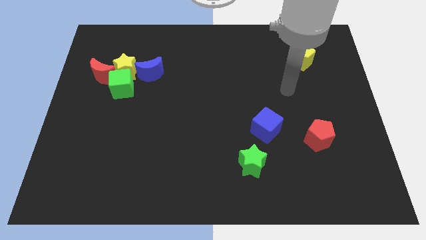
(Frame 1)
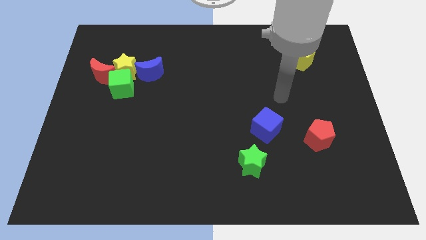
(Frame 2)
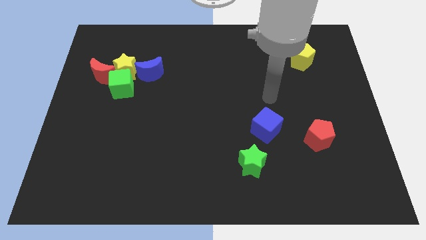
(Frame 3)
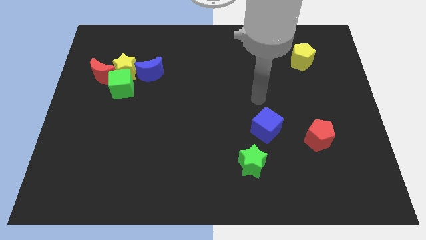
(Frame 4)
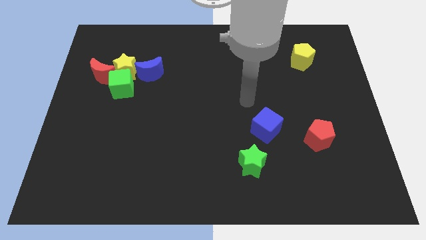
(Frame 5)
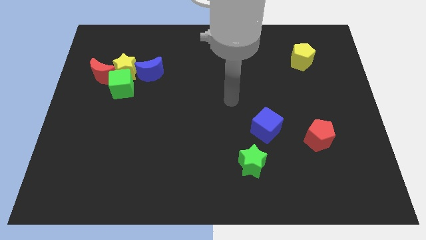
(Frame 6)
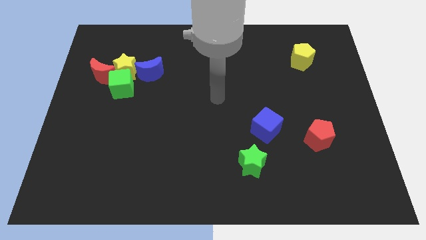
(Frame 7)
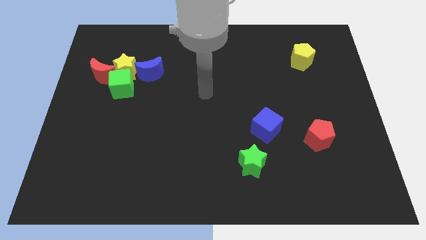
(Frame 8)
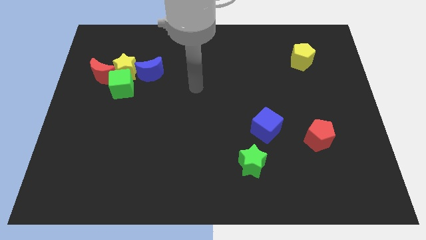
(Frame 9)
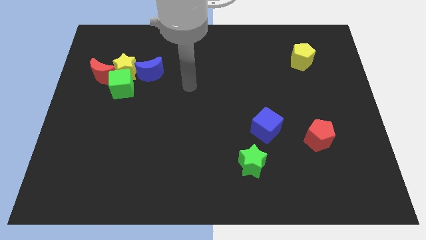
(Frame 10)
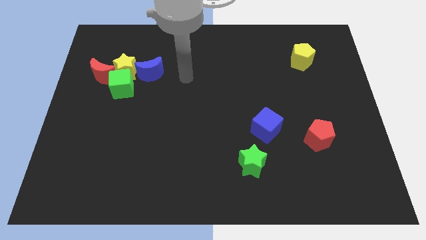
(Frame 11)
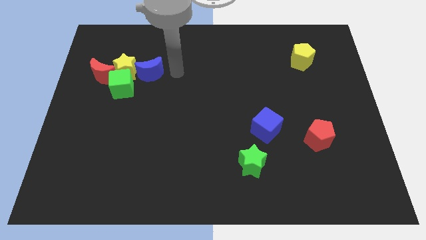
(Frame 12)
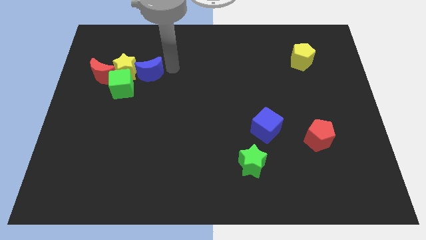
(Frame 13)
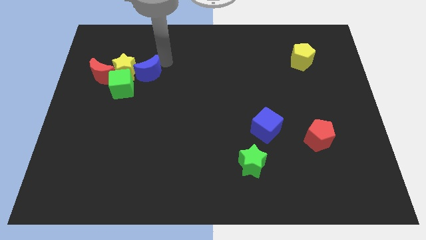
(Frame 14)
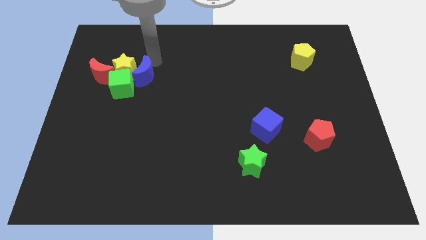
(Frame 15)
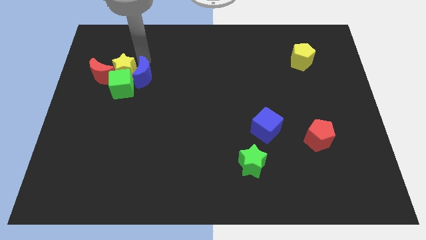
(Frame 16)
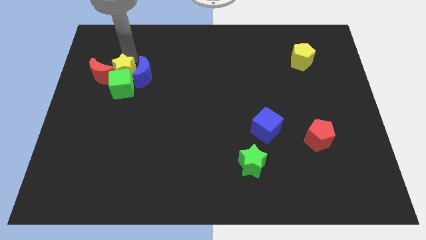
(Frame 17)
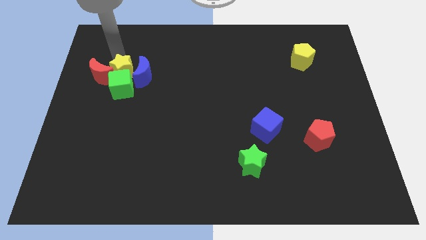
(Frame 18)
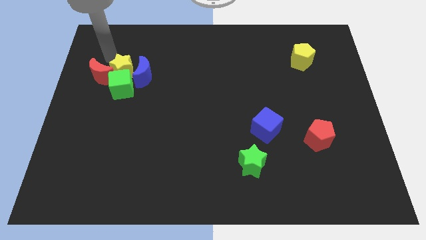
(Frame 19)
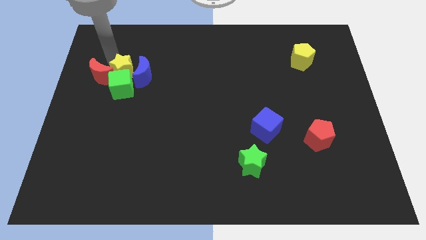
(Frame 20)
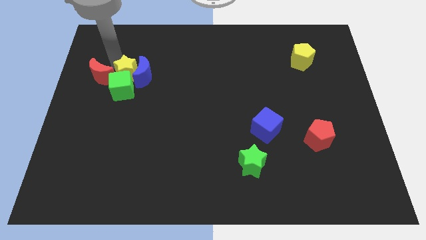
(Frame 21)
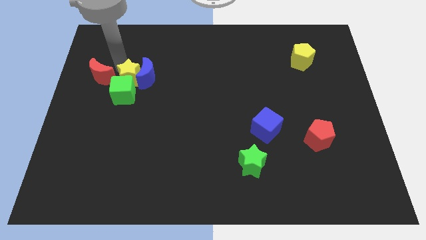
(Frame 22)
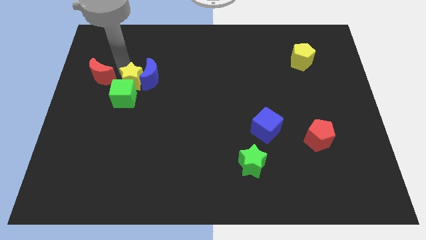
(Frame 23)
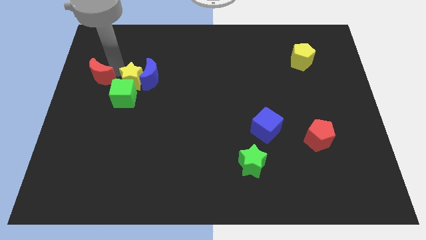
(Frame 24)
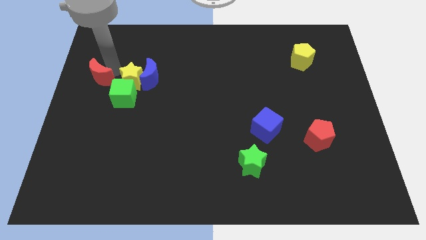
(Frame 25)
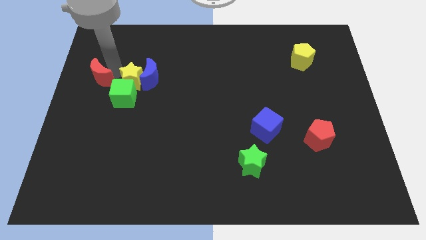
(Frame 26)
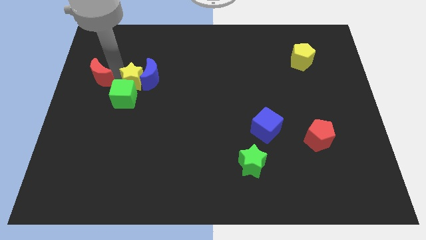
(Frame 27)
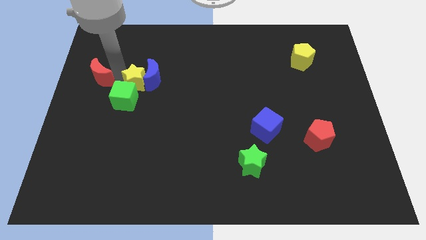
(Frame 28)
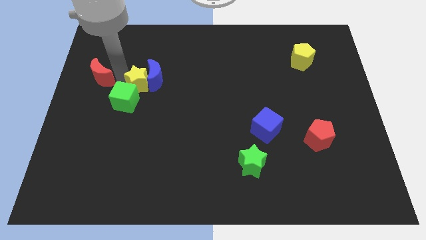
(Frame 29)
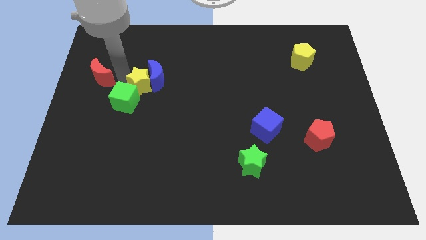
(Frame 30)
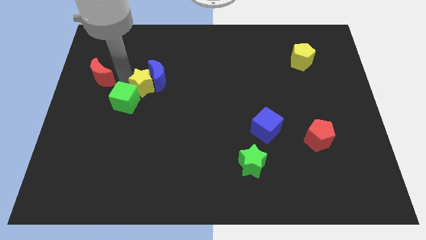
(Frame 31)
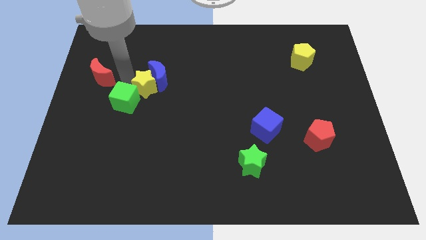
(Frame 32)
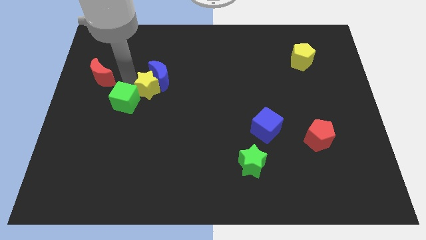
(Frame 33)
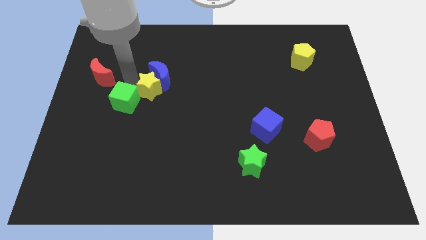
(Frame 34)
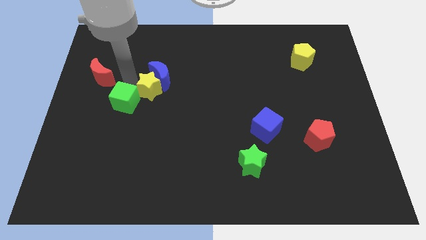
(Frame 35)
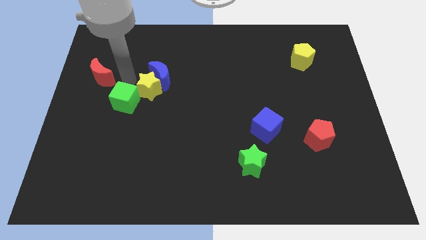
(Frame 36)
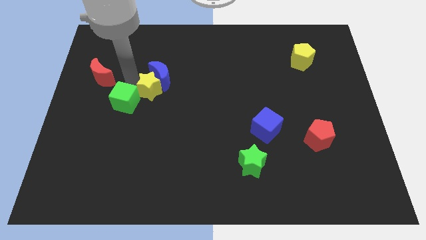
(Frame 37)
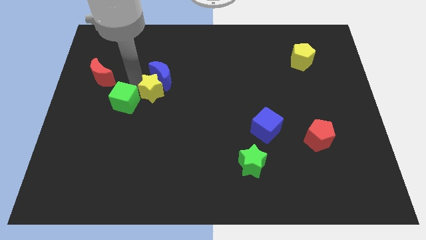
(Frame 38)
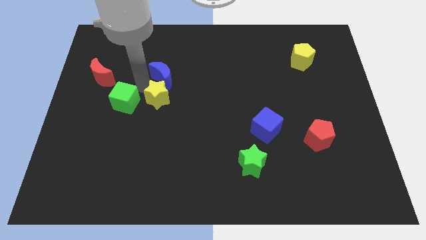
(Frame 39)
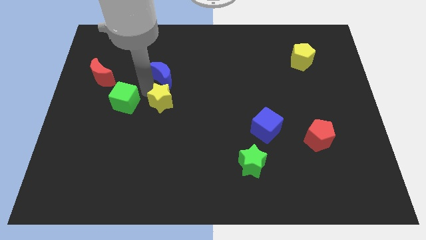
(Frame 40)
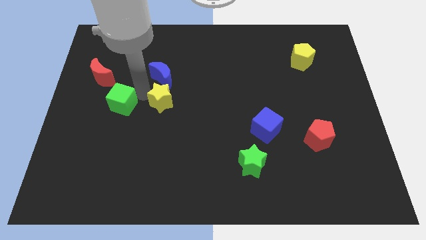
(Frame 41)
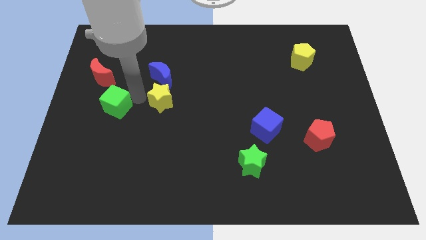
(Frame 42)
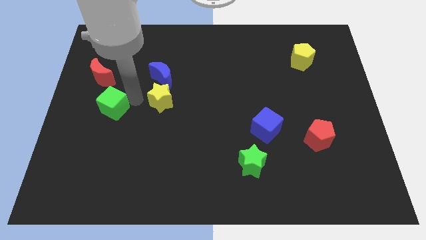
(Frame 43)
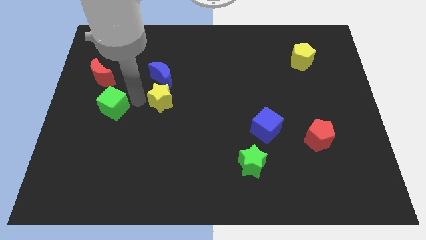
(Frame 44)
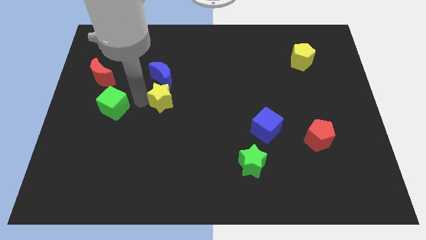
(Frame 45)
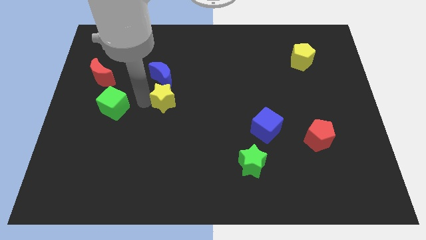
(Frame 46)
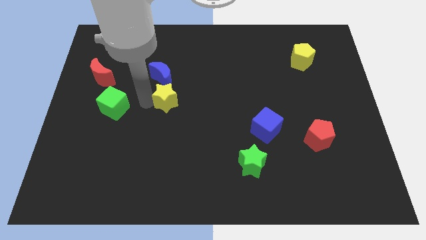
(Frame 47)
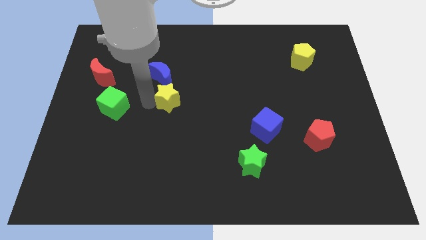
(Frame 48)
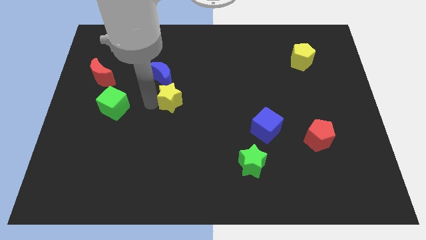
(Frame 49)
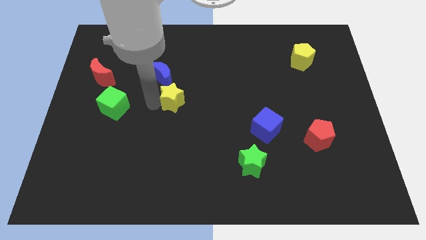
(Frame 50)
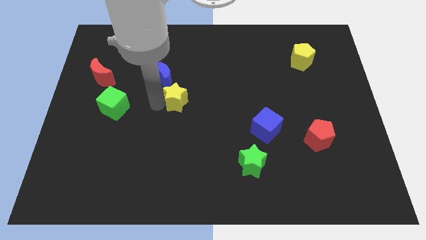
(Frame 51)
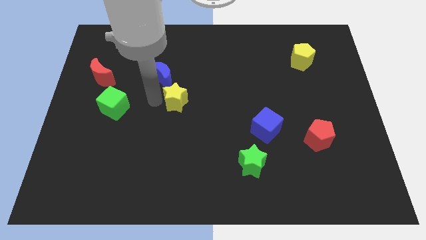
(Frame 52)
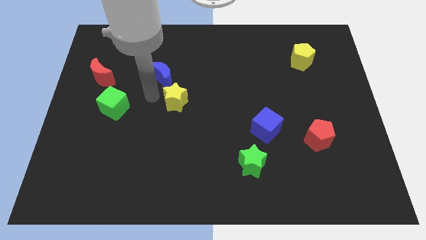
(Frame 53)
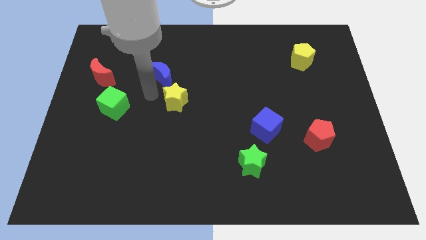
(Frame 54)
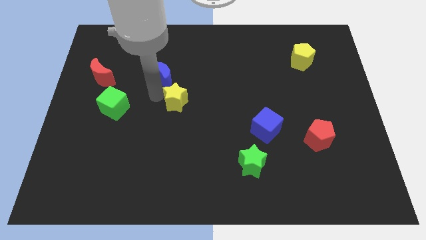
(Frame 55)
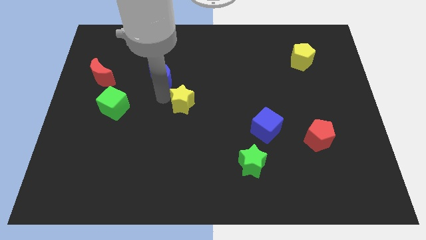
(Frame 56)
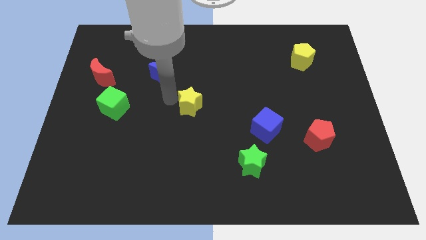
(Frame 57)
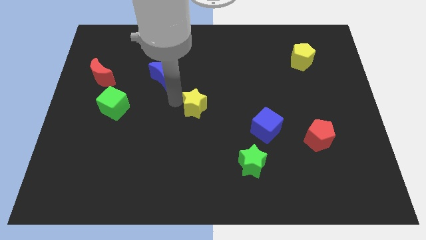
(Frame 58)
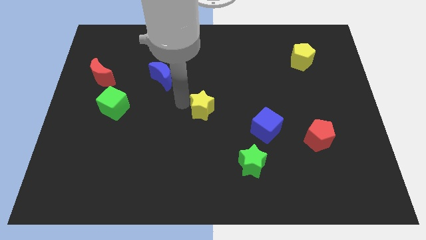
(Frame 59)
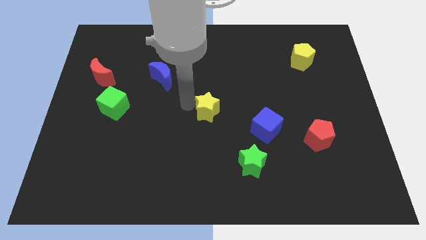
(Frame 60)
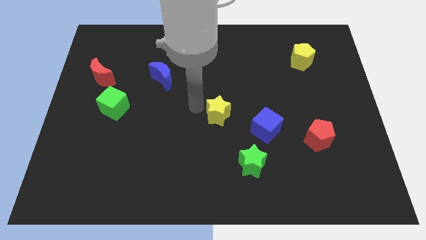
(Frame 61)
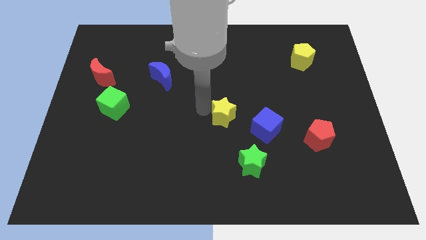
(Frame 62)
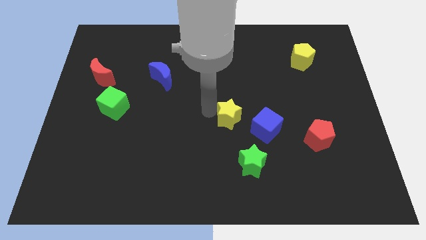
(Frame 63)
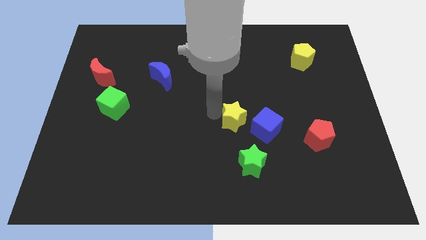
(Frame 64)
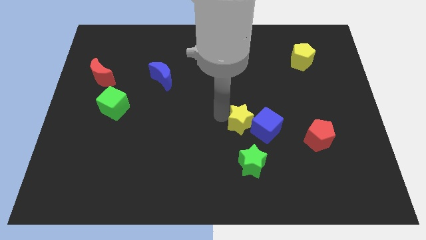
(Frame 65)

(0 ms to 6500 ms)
slide the yellow star towards the blue cube
